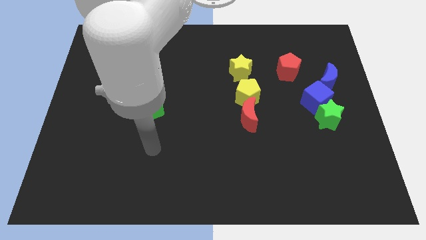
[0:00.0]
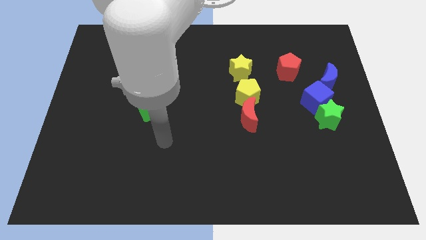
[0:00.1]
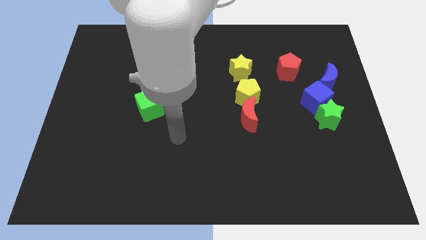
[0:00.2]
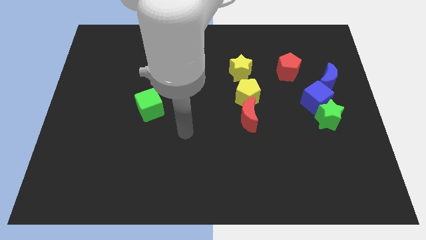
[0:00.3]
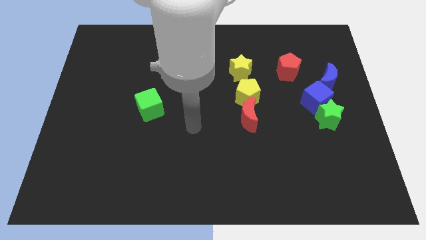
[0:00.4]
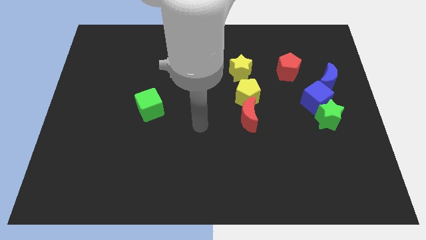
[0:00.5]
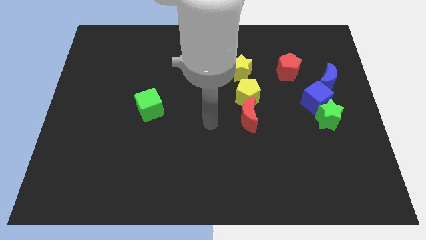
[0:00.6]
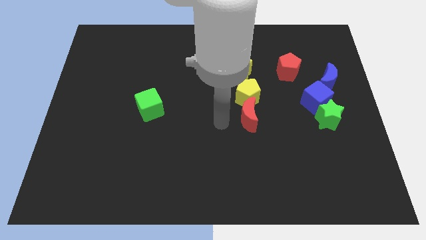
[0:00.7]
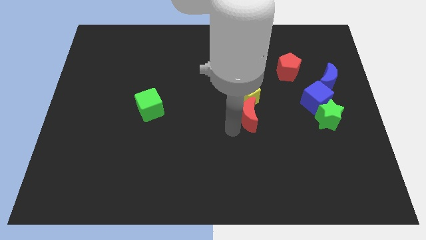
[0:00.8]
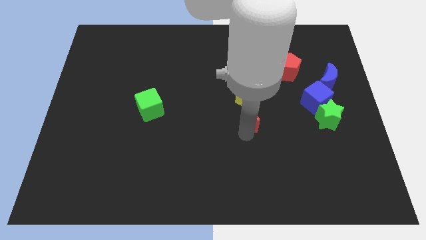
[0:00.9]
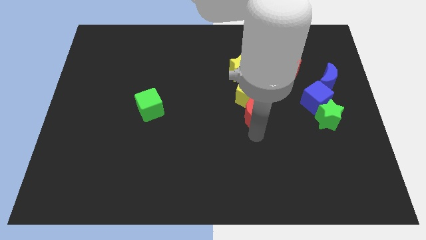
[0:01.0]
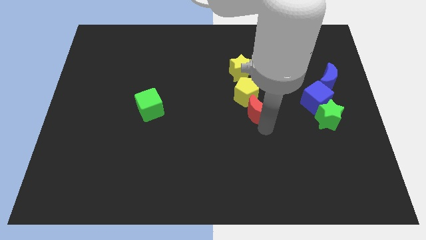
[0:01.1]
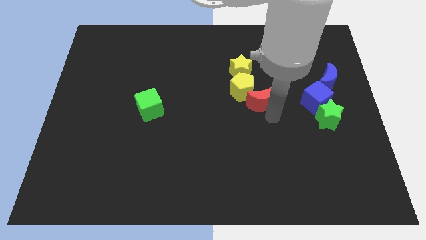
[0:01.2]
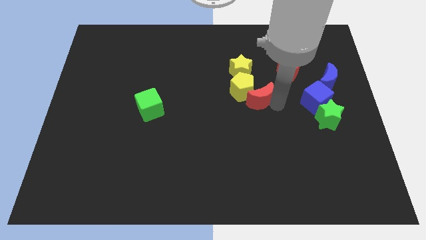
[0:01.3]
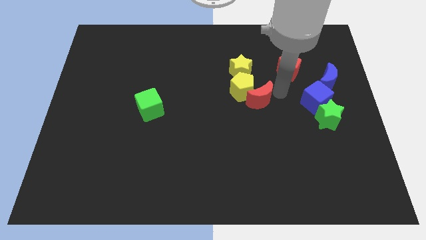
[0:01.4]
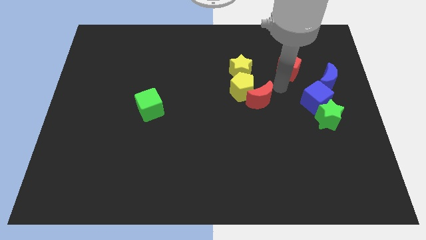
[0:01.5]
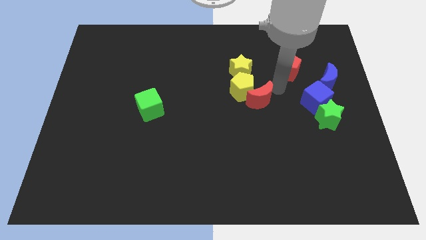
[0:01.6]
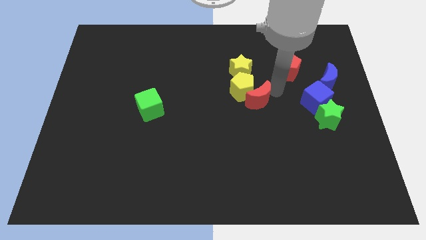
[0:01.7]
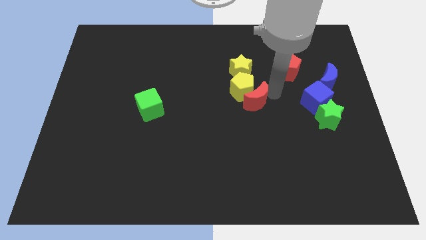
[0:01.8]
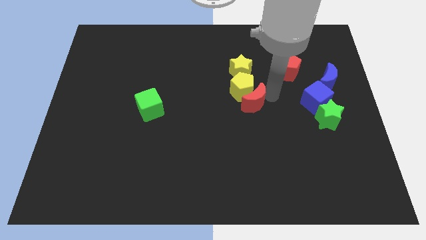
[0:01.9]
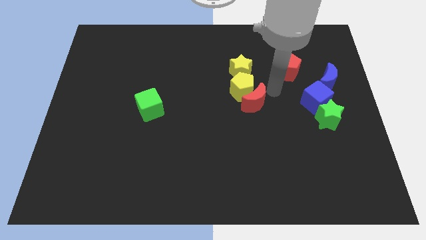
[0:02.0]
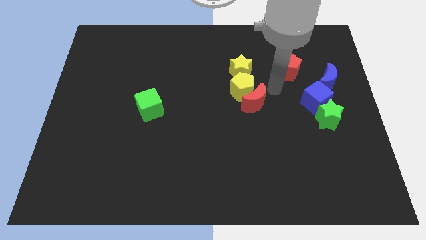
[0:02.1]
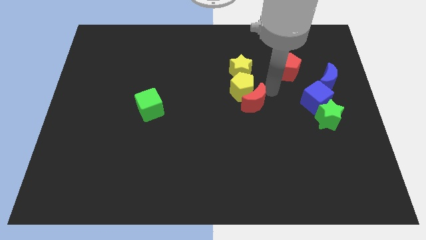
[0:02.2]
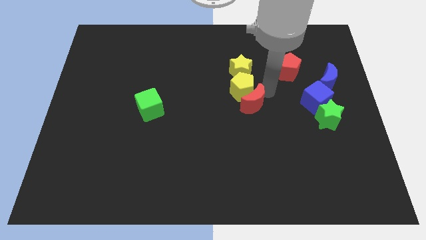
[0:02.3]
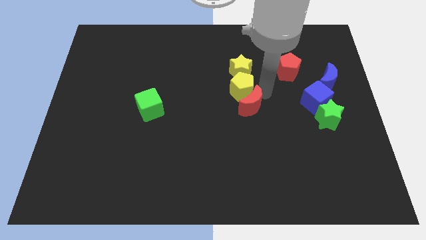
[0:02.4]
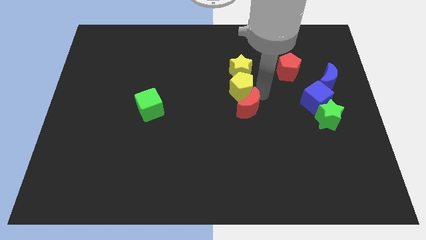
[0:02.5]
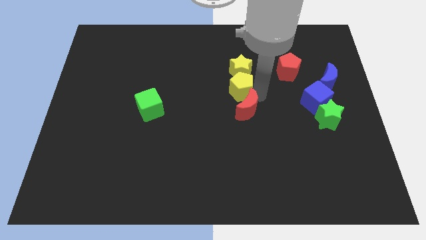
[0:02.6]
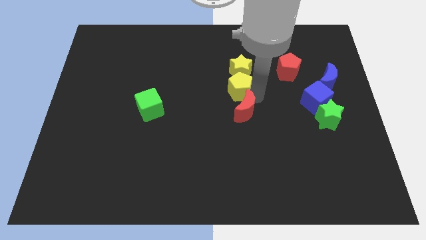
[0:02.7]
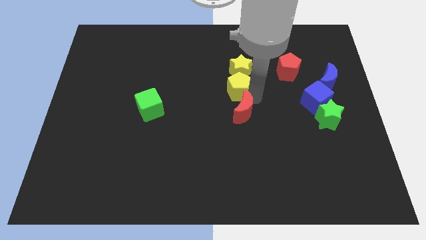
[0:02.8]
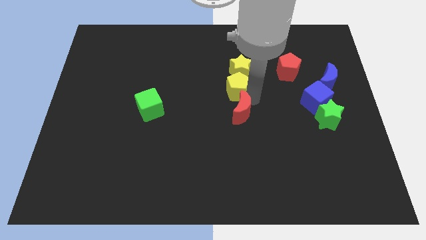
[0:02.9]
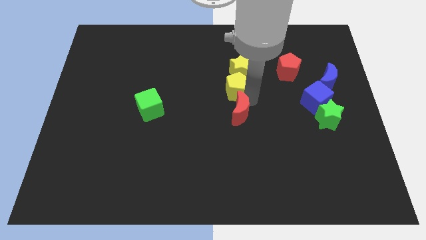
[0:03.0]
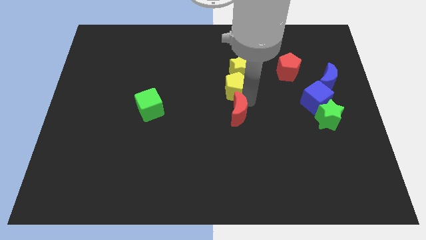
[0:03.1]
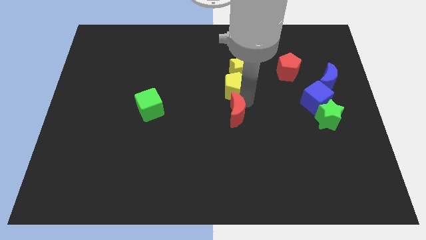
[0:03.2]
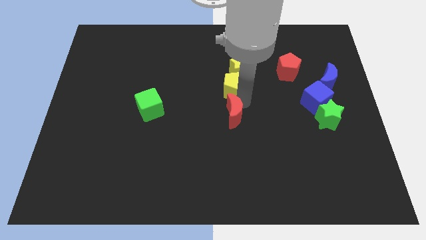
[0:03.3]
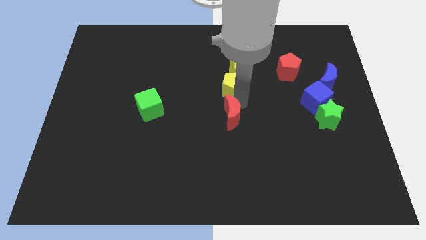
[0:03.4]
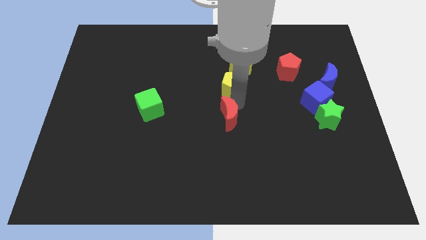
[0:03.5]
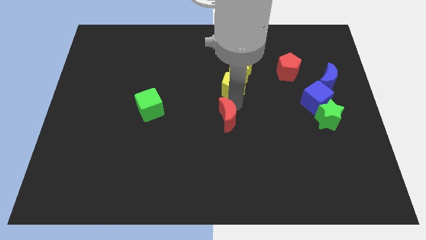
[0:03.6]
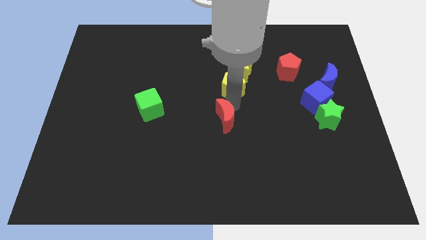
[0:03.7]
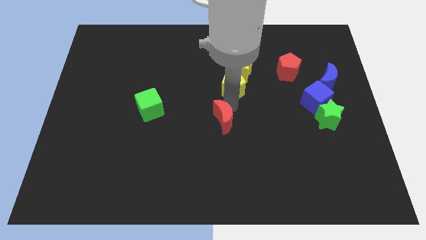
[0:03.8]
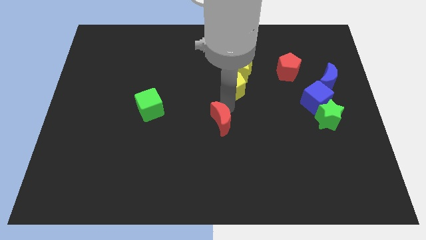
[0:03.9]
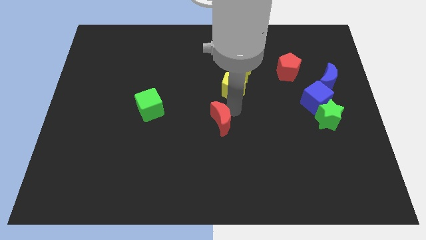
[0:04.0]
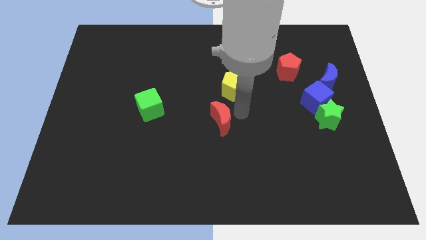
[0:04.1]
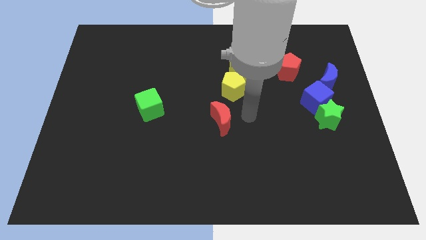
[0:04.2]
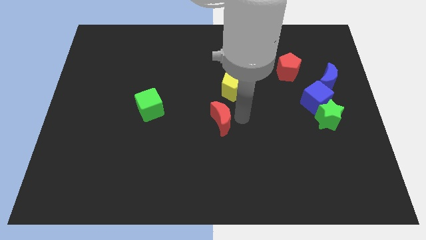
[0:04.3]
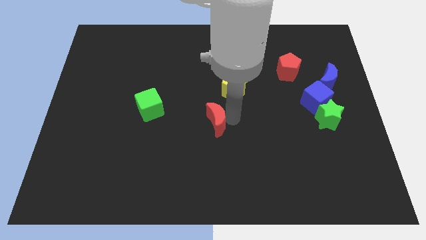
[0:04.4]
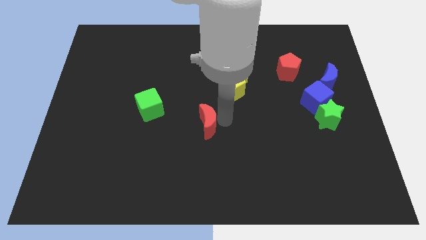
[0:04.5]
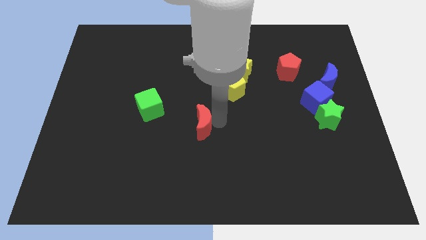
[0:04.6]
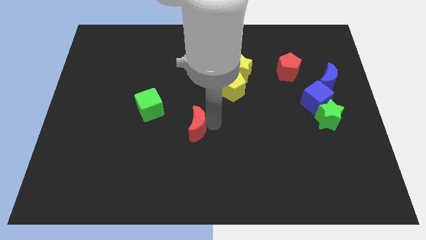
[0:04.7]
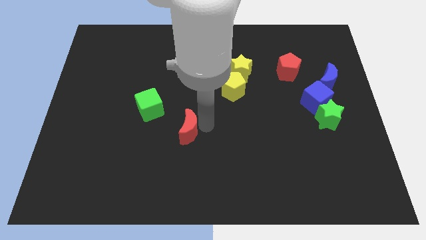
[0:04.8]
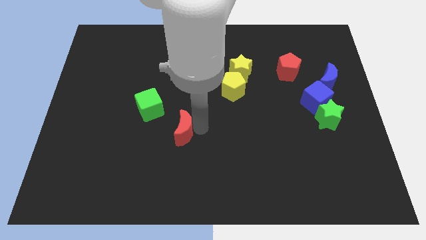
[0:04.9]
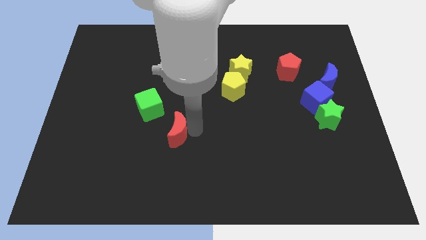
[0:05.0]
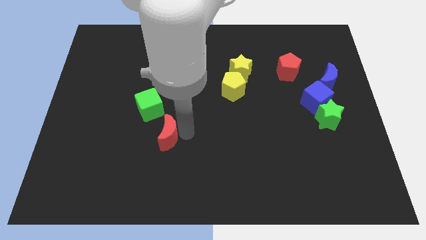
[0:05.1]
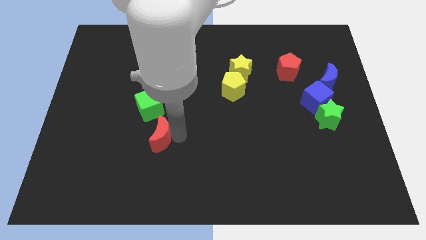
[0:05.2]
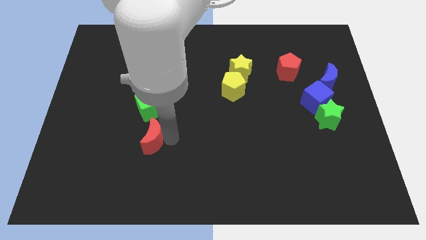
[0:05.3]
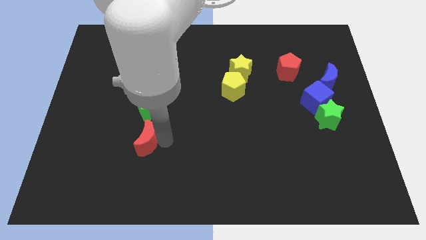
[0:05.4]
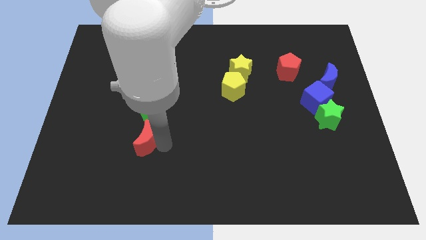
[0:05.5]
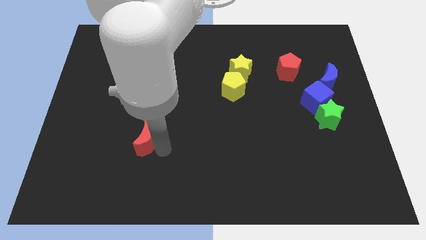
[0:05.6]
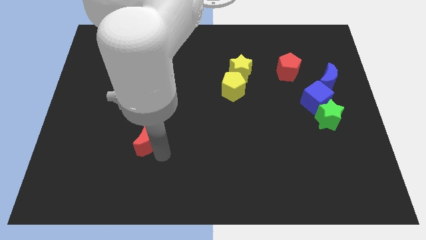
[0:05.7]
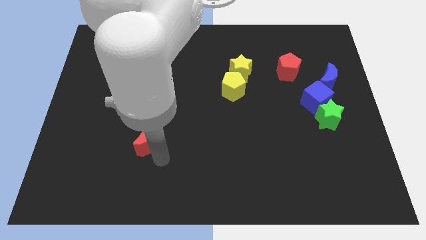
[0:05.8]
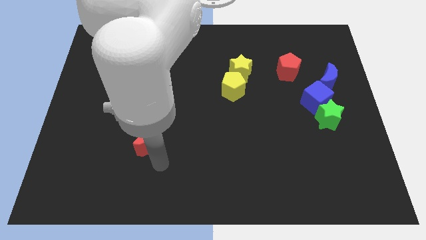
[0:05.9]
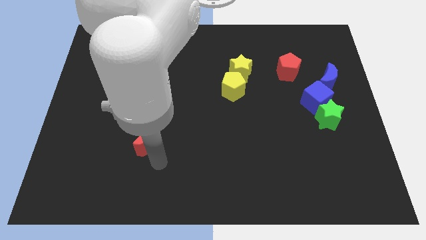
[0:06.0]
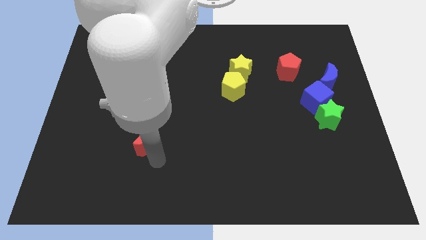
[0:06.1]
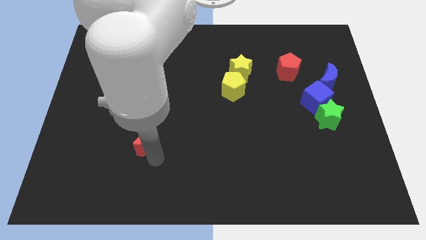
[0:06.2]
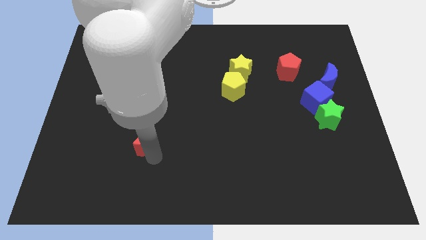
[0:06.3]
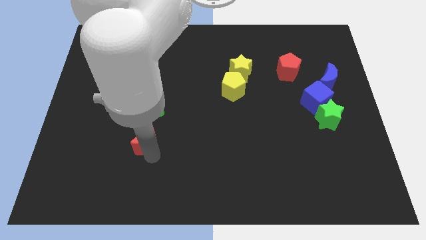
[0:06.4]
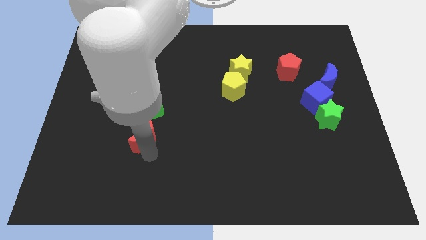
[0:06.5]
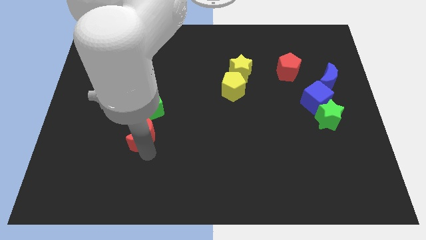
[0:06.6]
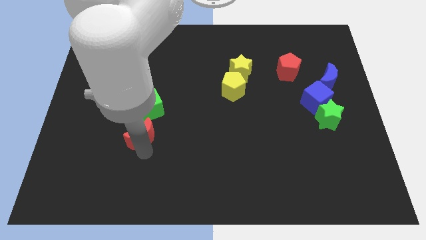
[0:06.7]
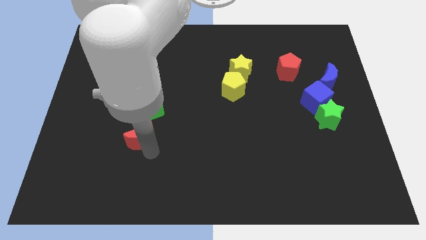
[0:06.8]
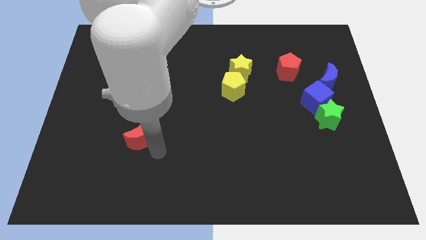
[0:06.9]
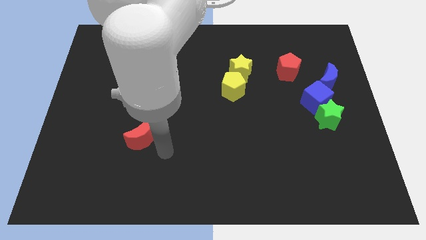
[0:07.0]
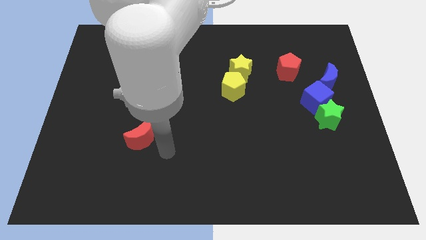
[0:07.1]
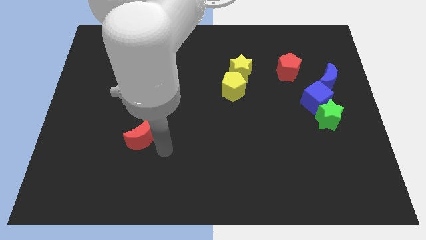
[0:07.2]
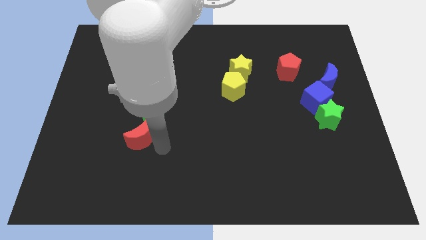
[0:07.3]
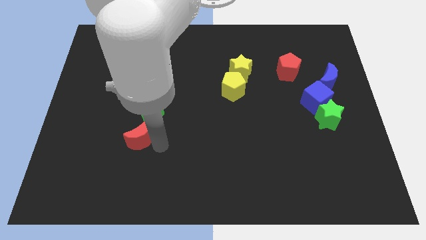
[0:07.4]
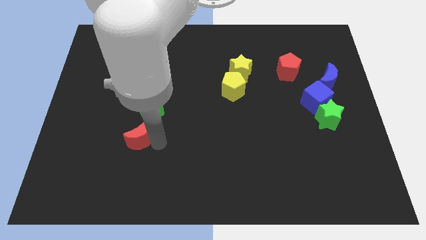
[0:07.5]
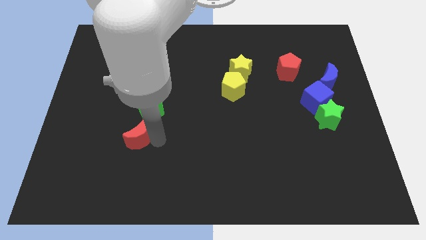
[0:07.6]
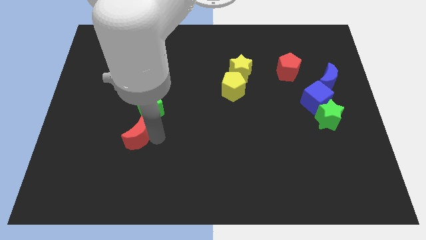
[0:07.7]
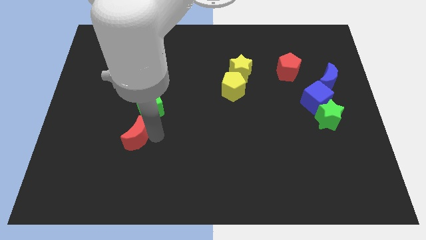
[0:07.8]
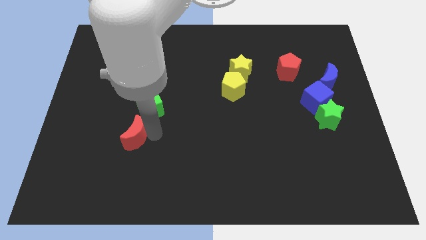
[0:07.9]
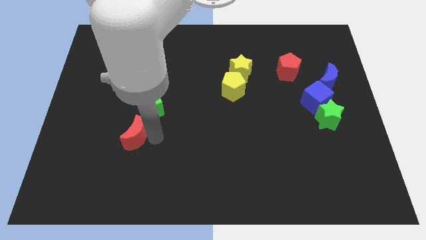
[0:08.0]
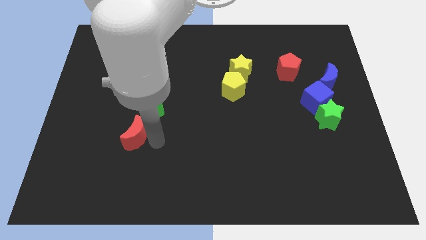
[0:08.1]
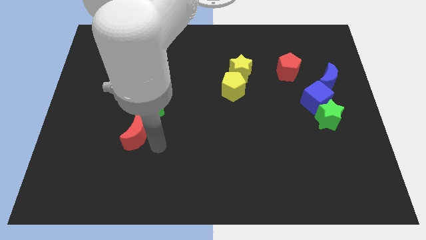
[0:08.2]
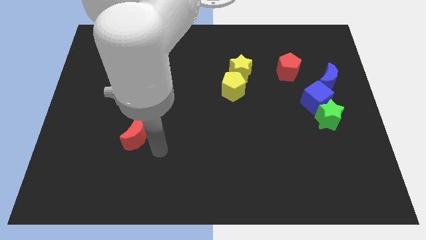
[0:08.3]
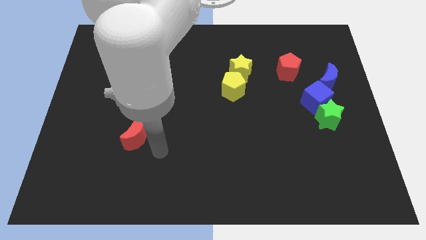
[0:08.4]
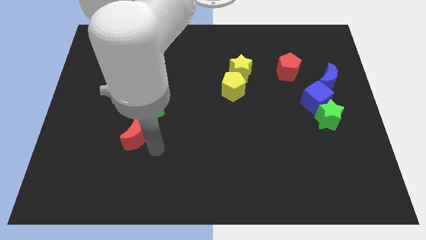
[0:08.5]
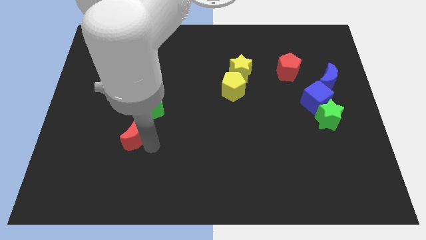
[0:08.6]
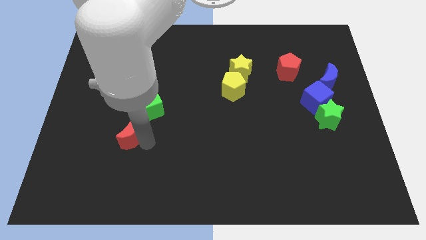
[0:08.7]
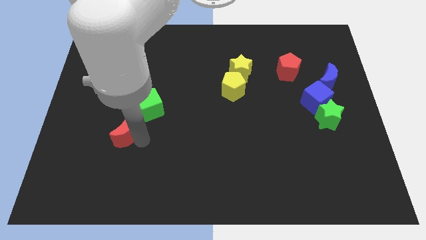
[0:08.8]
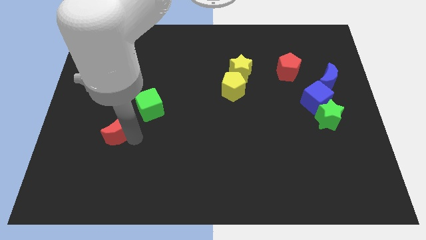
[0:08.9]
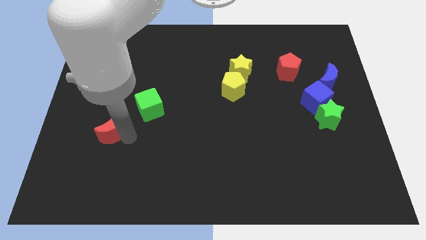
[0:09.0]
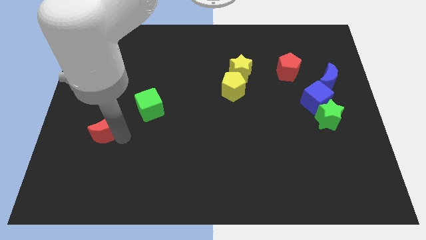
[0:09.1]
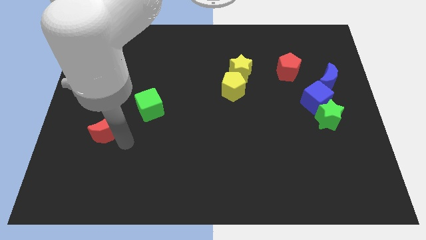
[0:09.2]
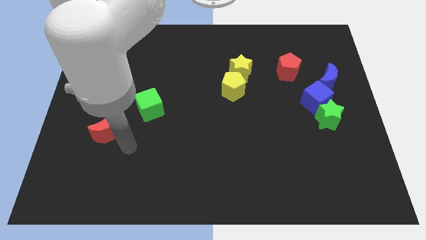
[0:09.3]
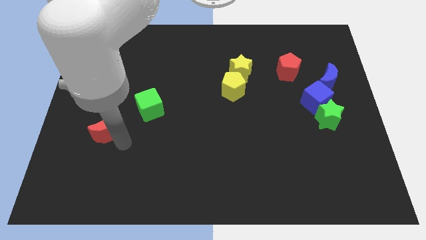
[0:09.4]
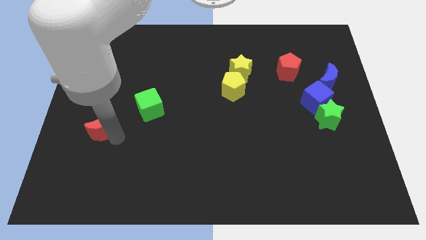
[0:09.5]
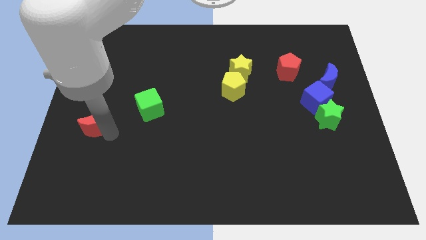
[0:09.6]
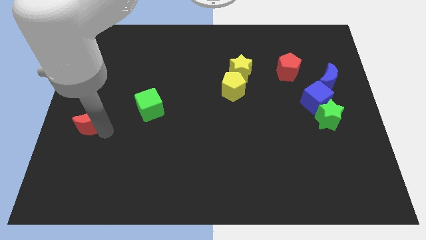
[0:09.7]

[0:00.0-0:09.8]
move the red moon to the center left
